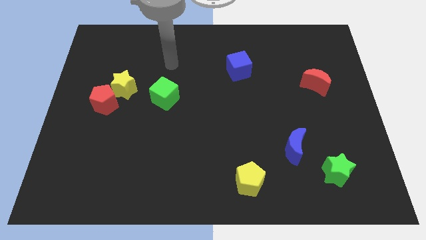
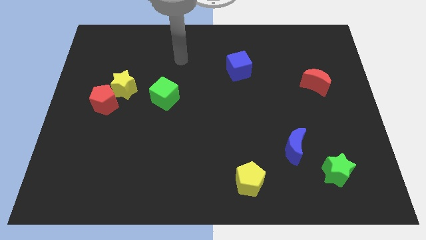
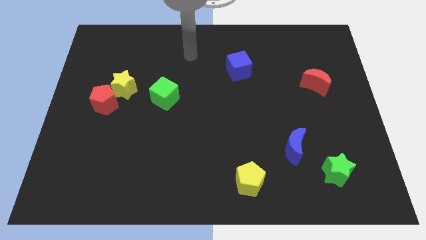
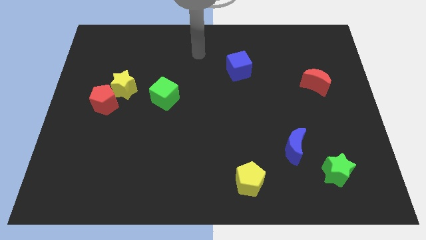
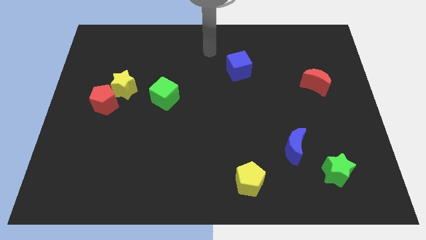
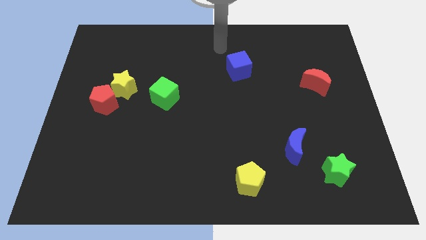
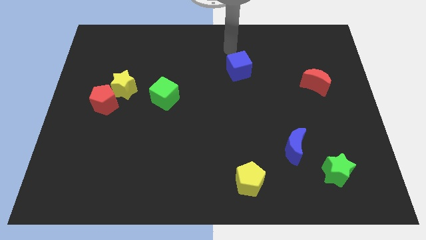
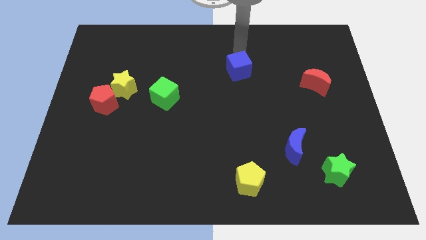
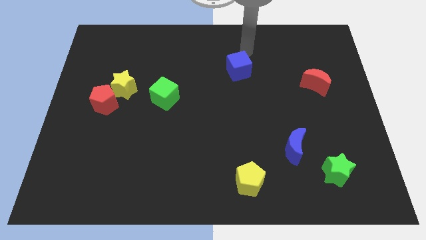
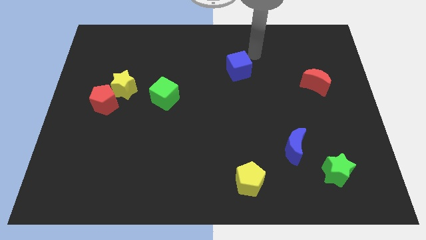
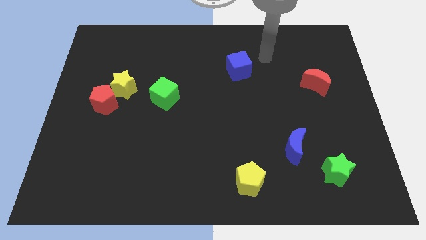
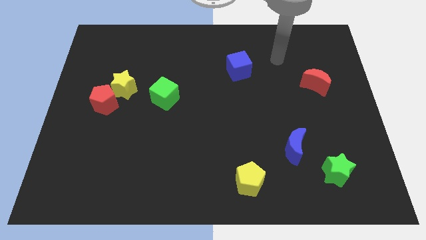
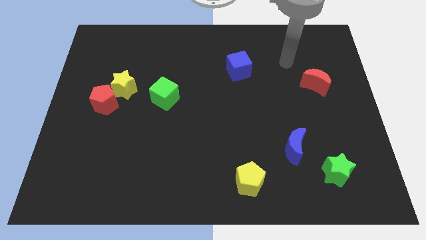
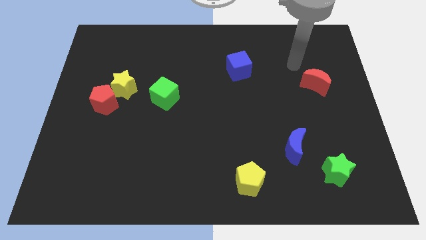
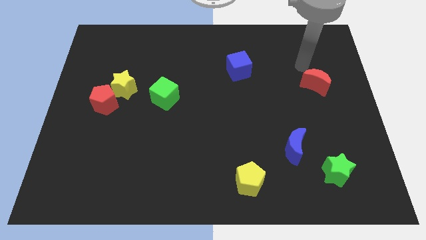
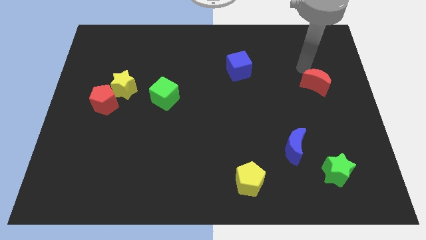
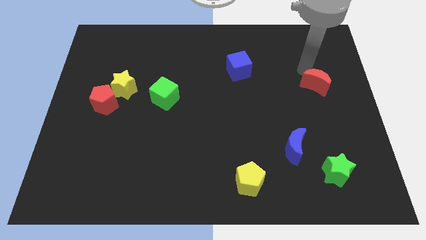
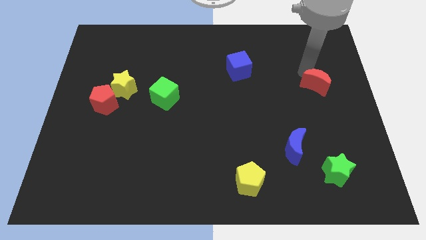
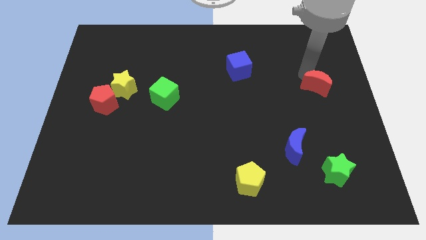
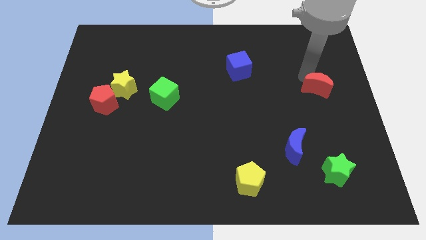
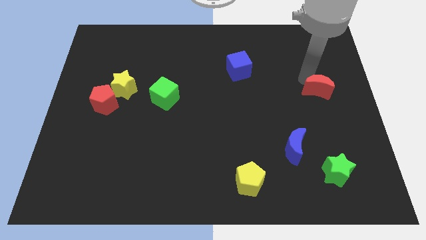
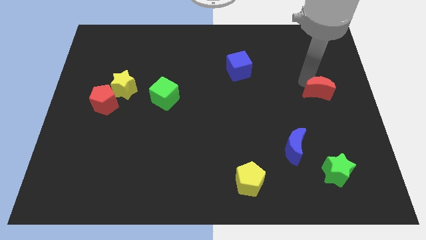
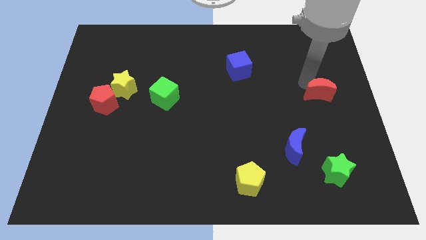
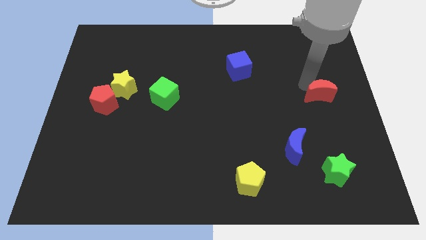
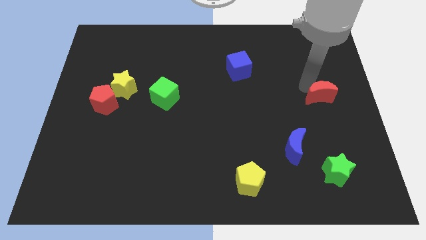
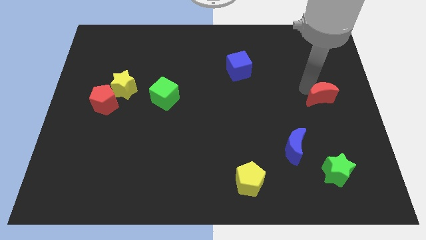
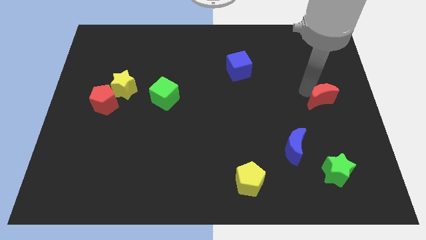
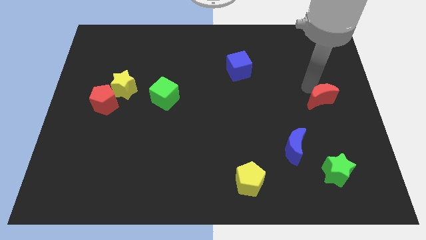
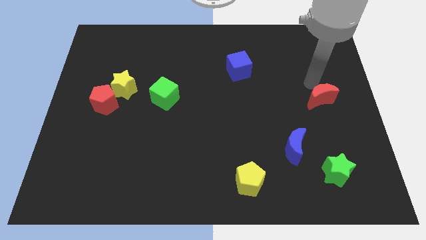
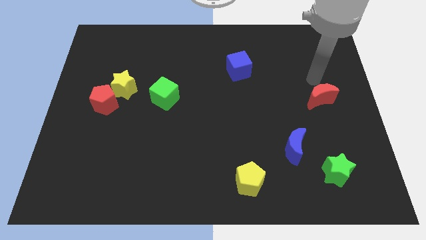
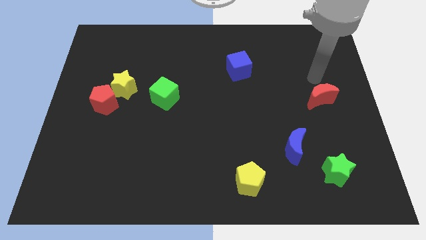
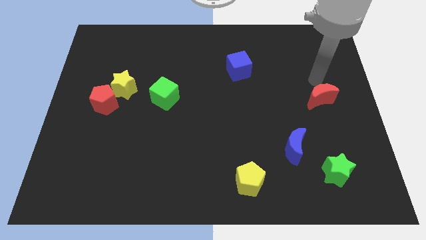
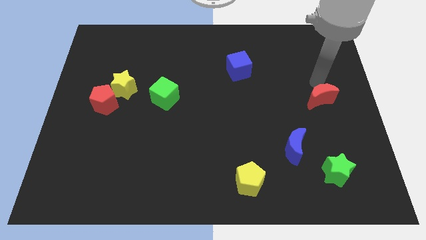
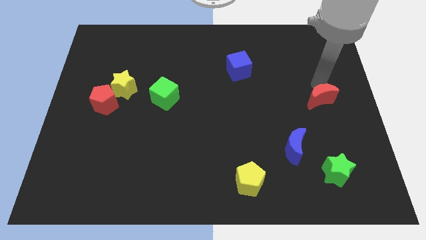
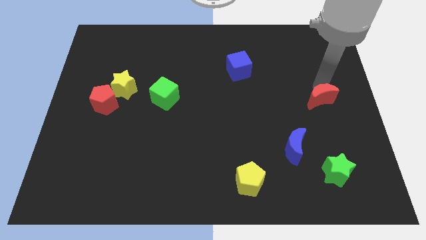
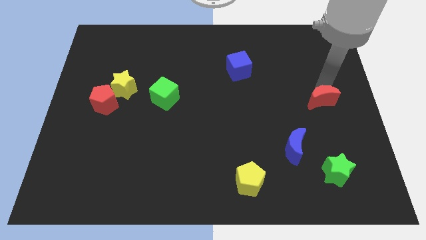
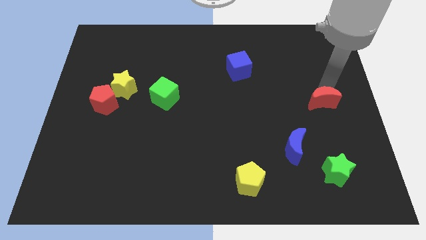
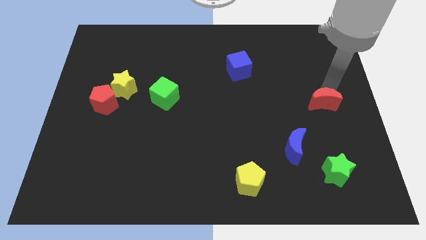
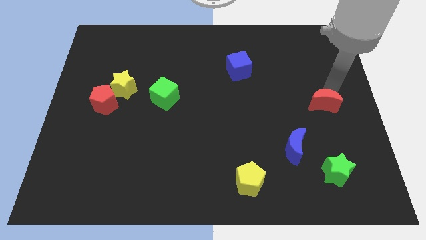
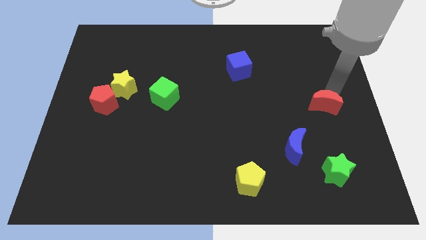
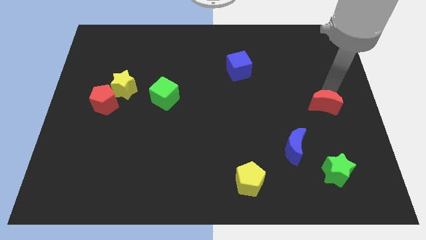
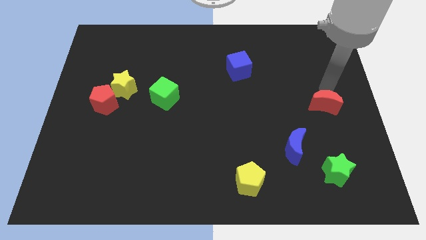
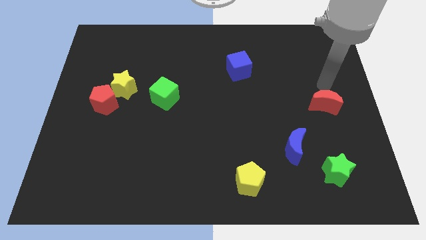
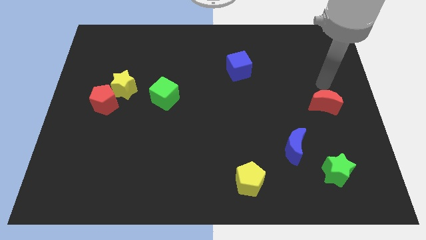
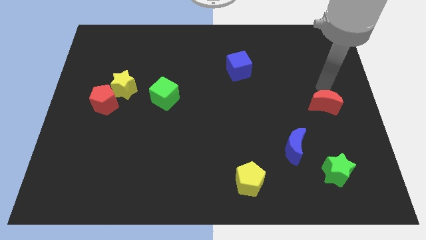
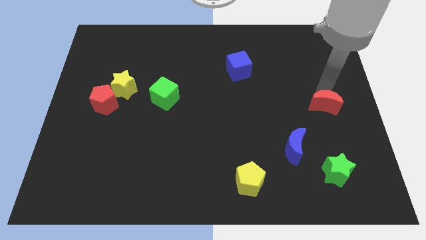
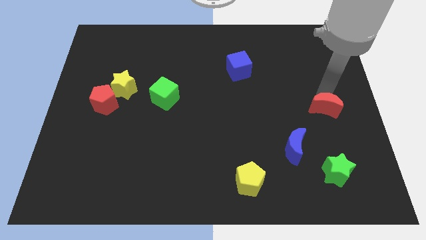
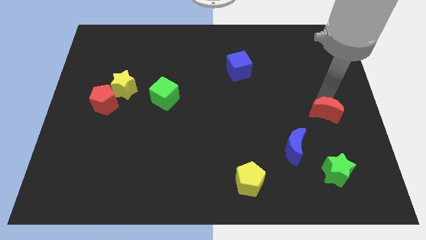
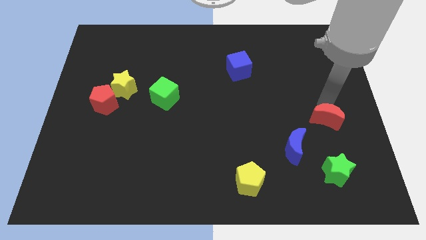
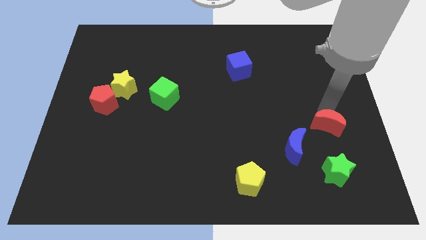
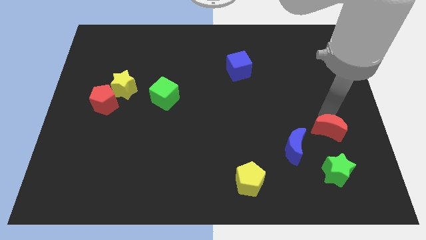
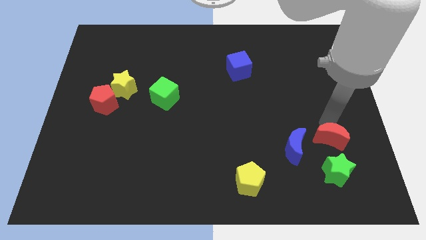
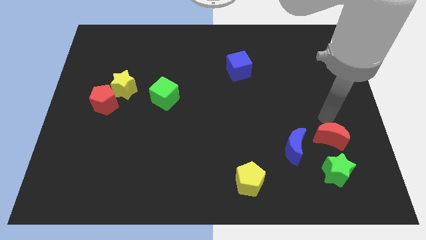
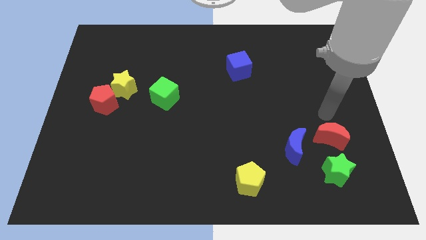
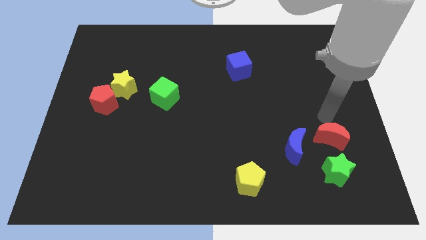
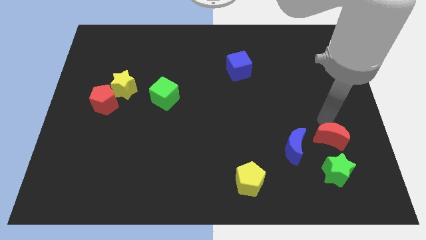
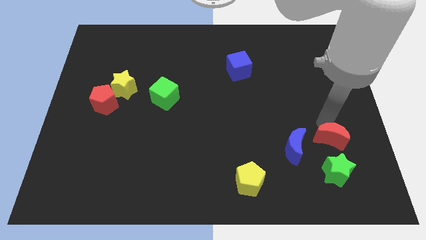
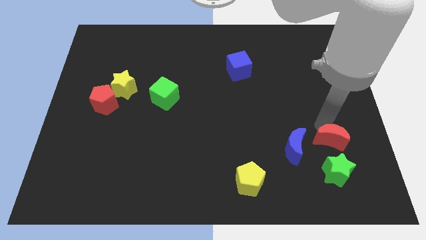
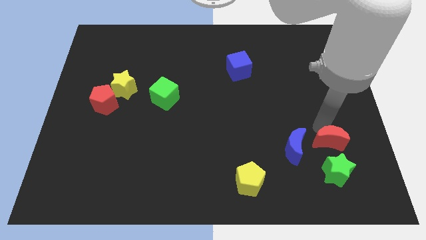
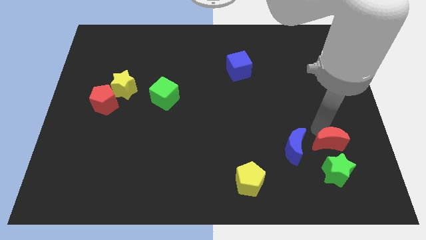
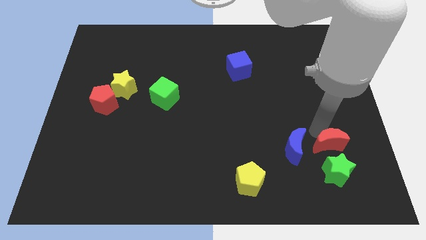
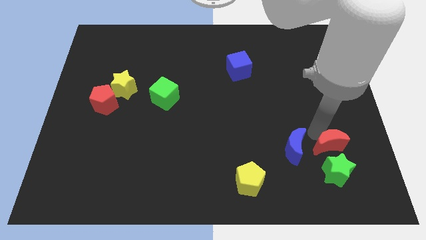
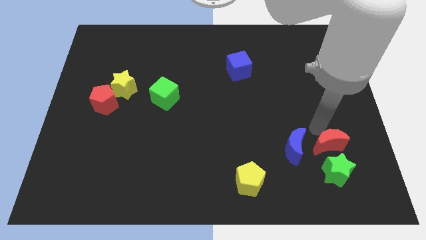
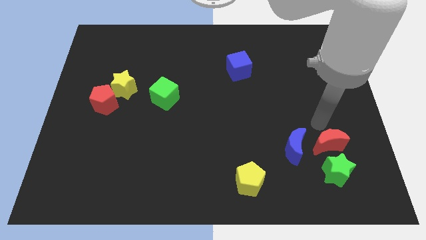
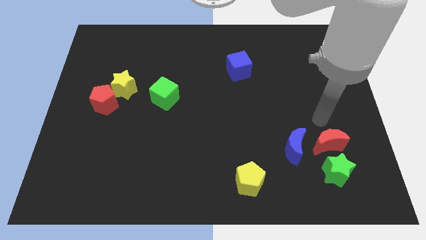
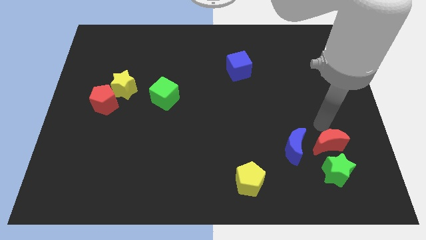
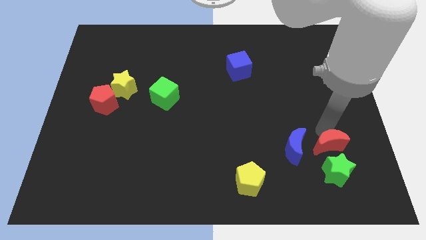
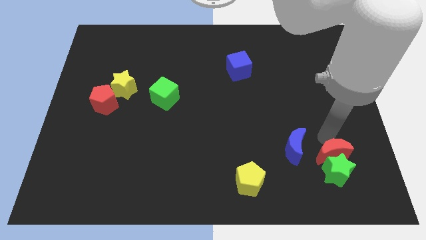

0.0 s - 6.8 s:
put the red moon to the green star

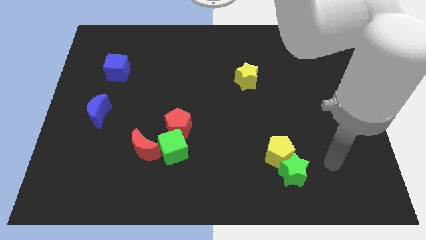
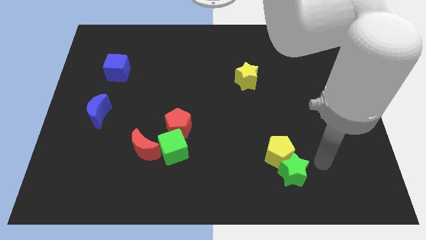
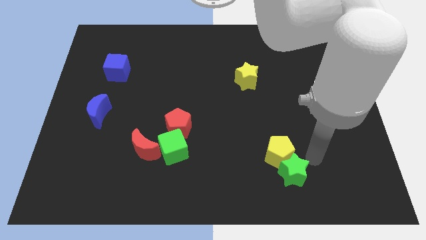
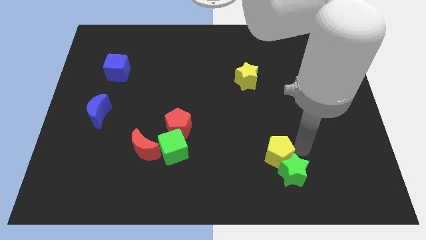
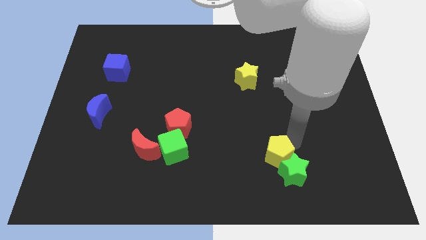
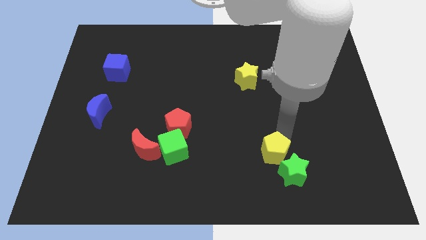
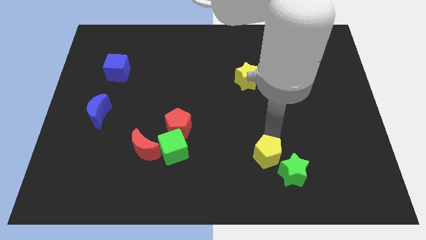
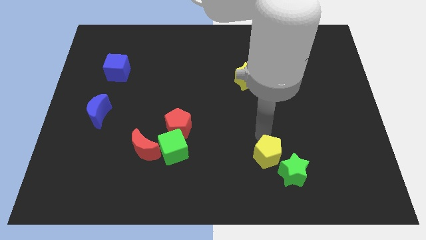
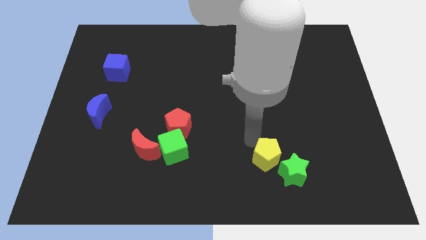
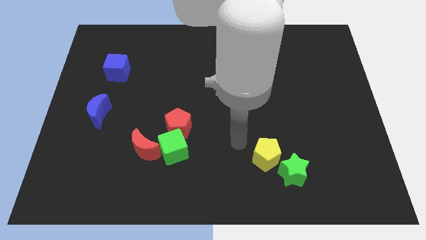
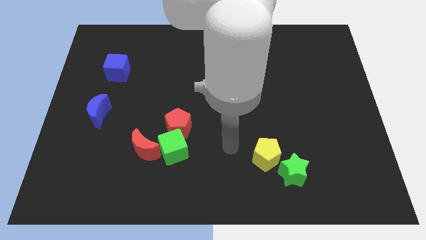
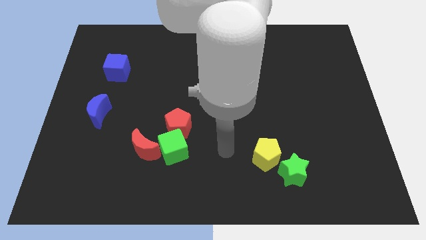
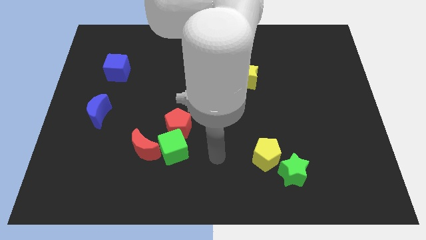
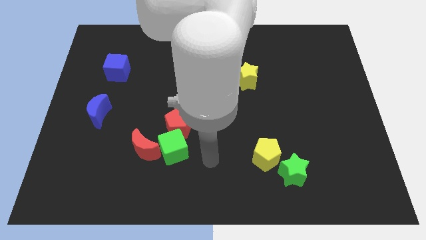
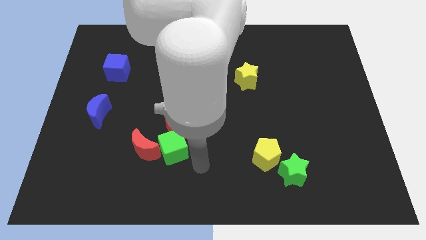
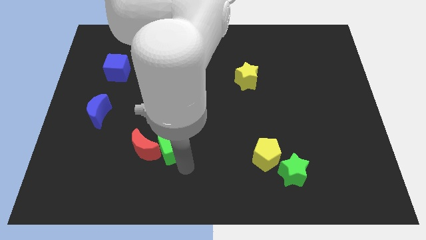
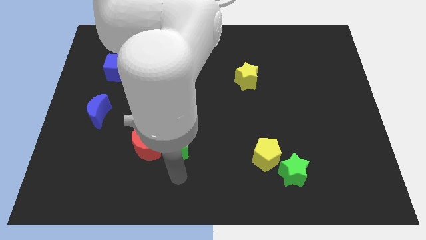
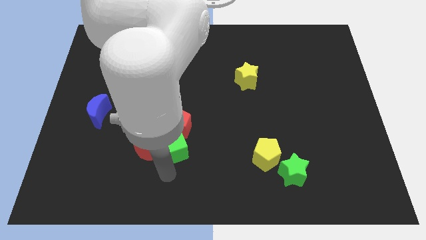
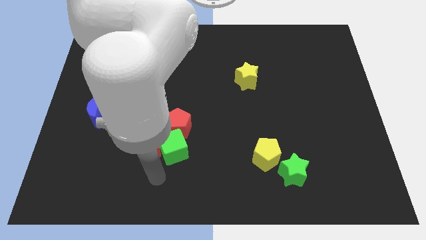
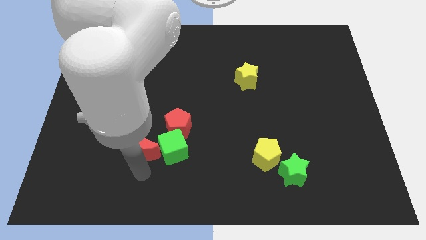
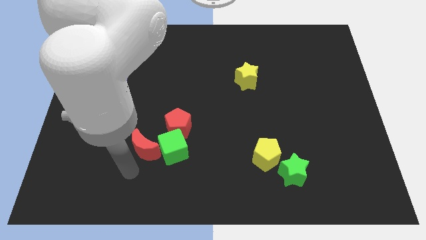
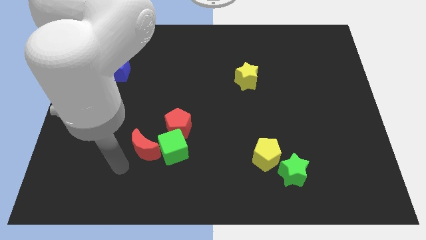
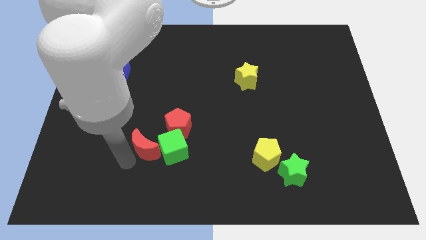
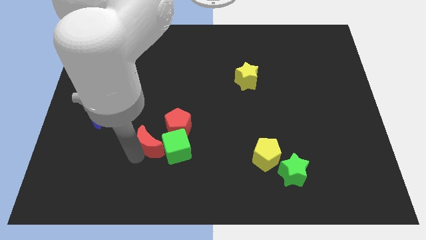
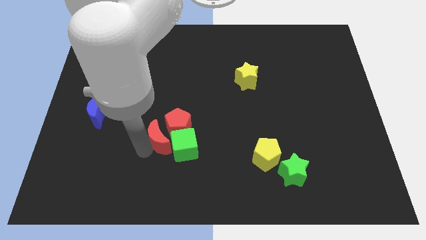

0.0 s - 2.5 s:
push the red moon close to the red pentagon
